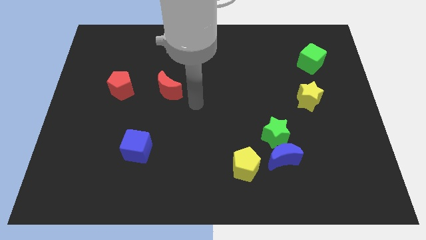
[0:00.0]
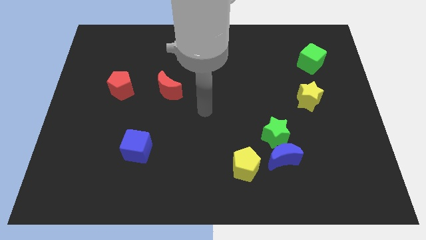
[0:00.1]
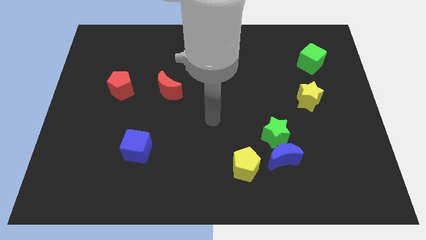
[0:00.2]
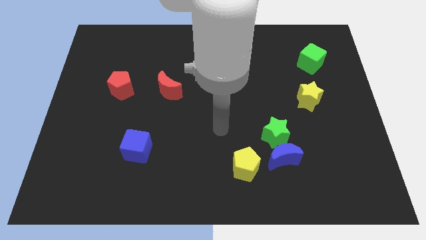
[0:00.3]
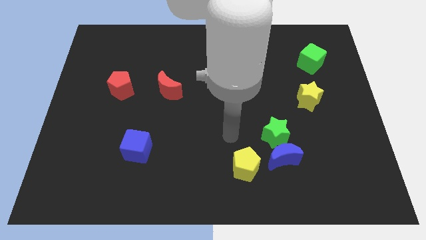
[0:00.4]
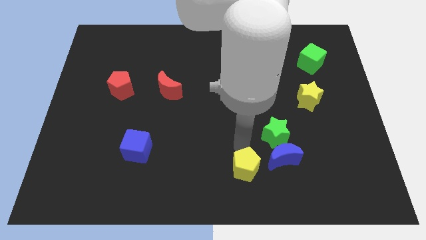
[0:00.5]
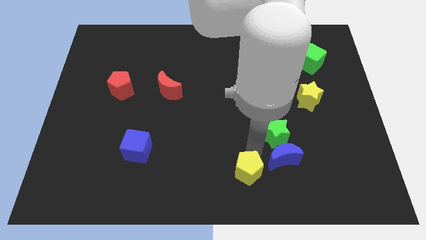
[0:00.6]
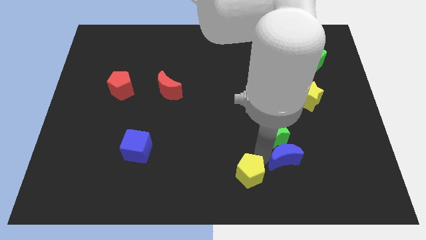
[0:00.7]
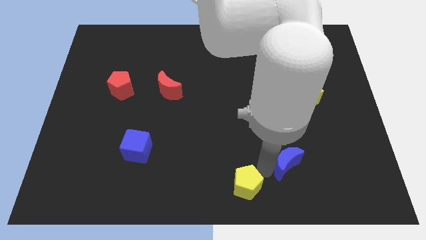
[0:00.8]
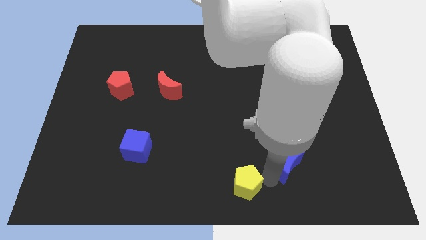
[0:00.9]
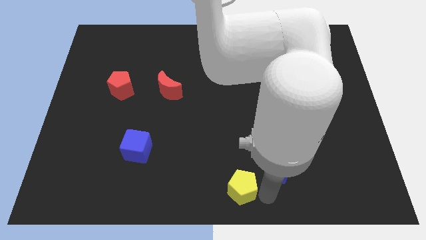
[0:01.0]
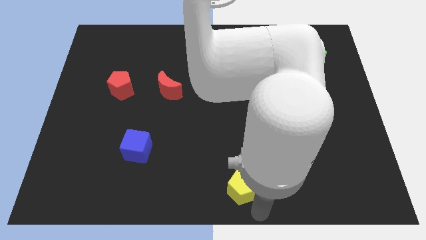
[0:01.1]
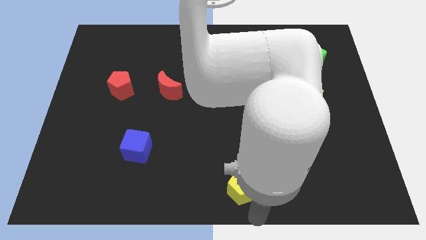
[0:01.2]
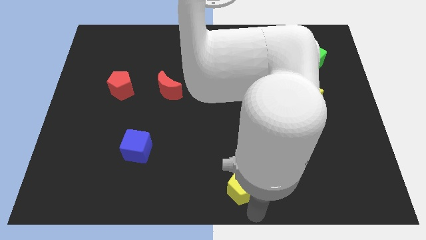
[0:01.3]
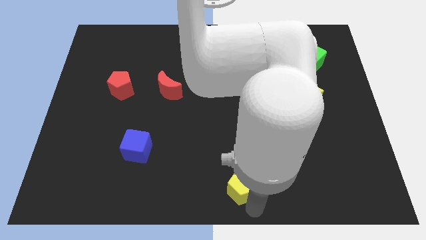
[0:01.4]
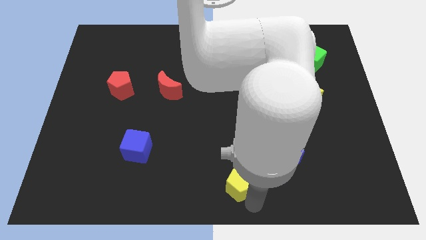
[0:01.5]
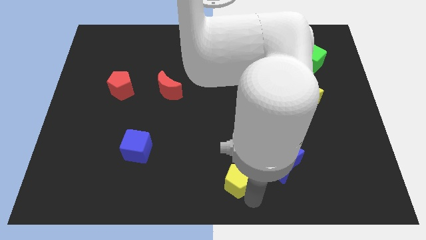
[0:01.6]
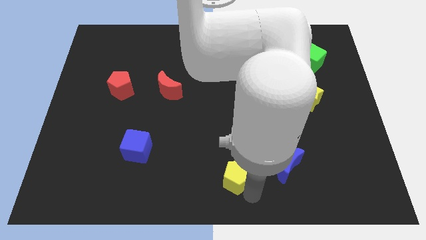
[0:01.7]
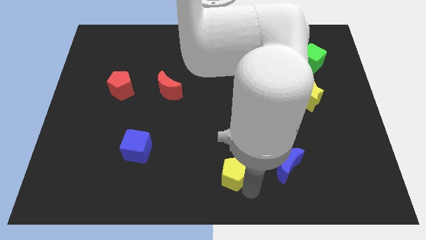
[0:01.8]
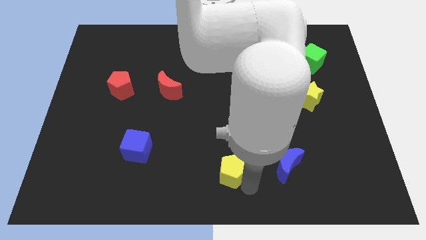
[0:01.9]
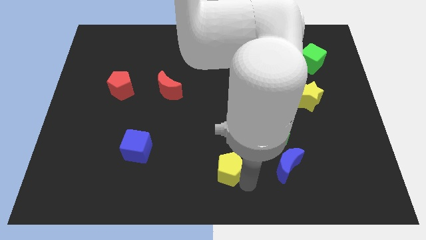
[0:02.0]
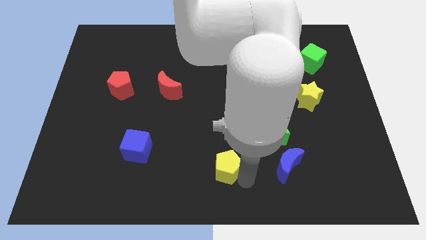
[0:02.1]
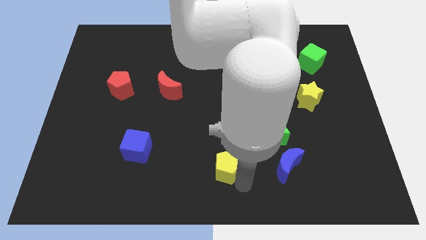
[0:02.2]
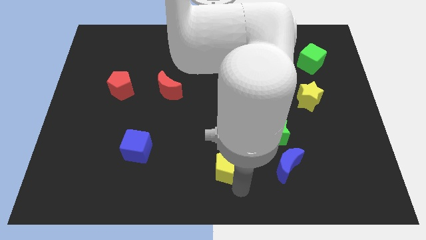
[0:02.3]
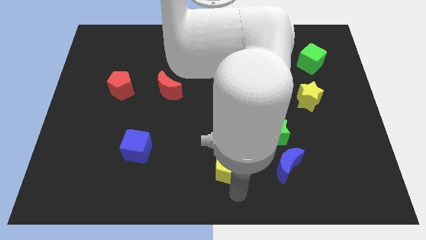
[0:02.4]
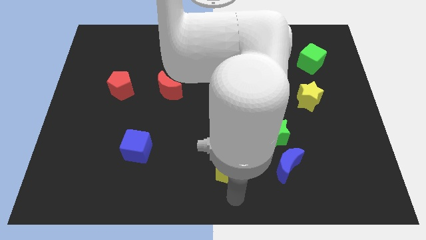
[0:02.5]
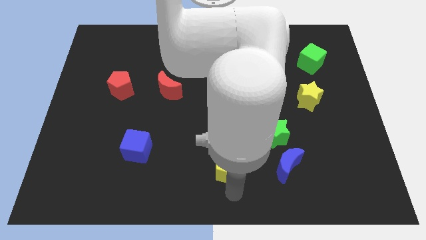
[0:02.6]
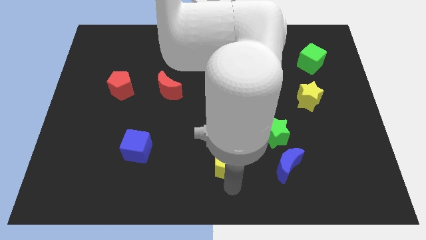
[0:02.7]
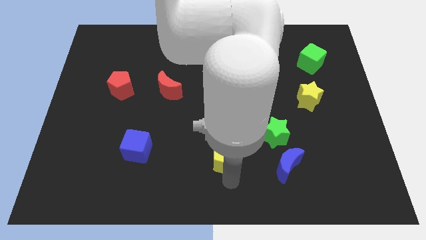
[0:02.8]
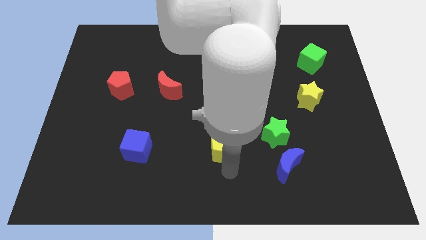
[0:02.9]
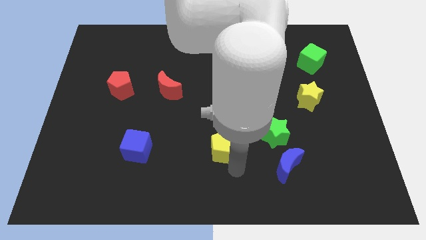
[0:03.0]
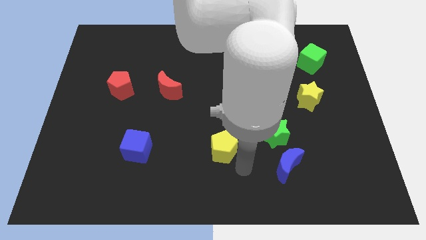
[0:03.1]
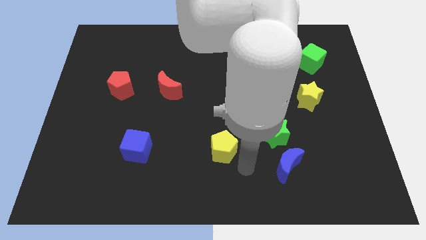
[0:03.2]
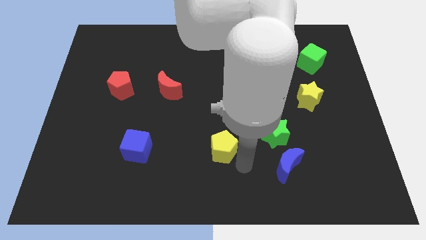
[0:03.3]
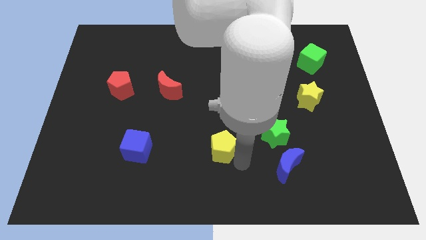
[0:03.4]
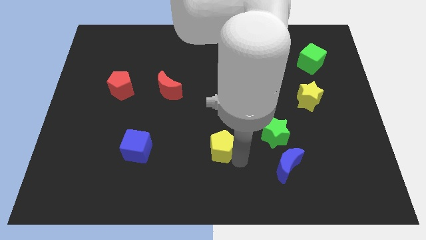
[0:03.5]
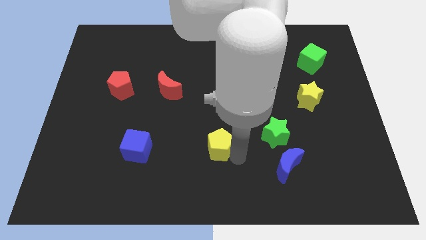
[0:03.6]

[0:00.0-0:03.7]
push the yellow pentagon upwards and then to the left a little

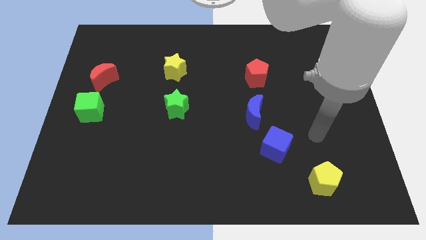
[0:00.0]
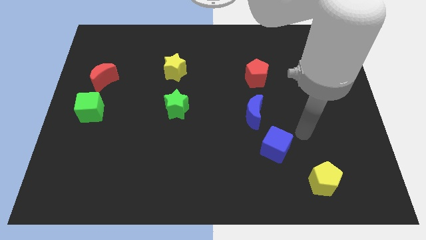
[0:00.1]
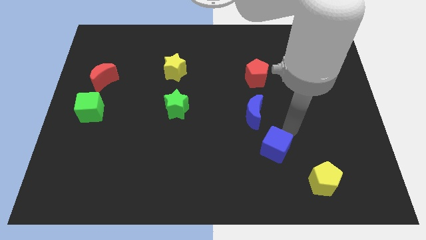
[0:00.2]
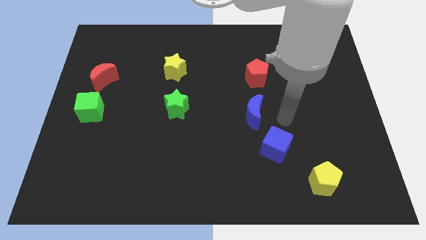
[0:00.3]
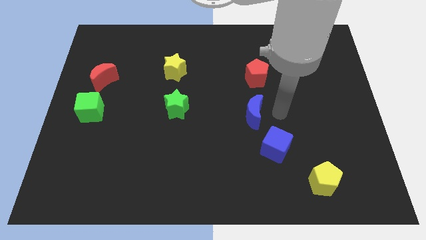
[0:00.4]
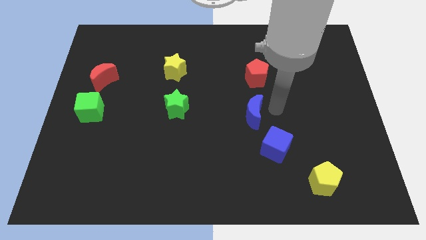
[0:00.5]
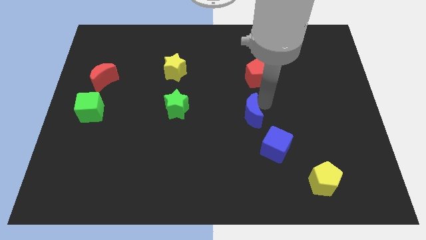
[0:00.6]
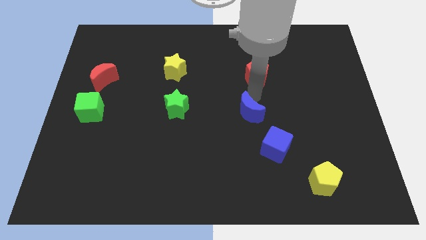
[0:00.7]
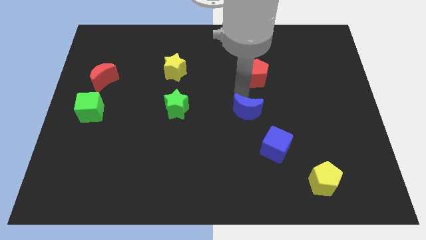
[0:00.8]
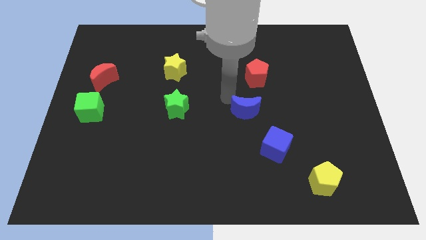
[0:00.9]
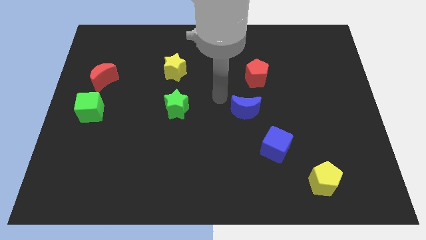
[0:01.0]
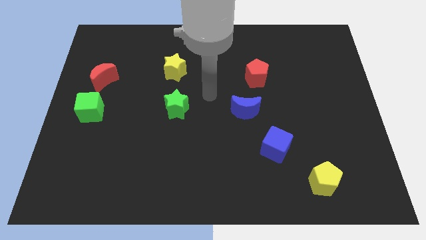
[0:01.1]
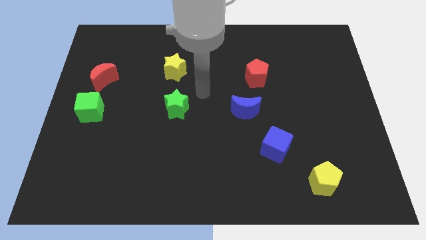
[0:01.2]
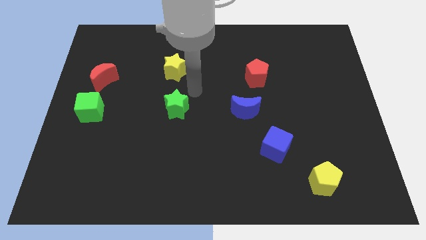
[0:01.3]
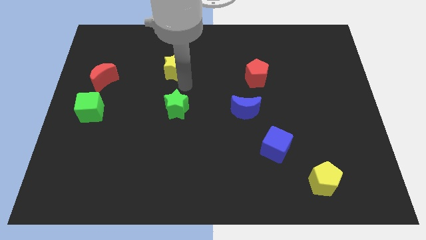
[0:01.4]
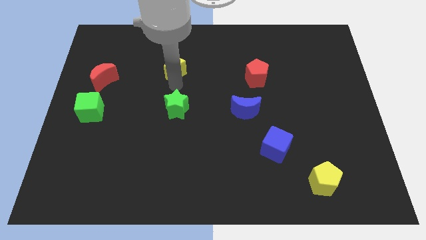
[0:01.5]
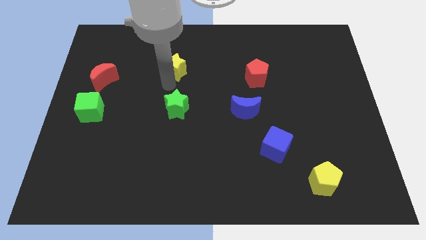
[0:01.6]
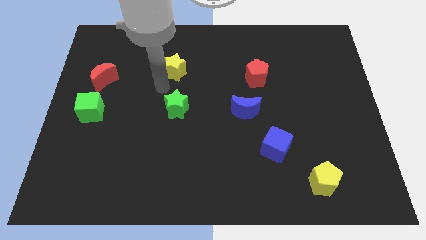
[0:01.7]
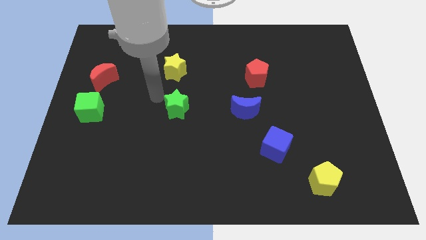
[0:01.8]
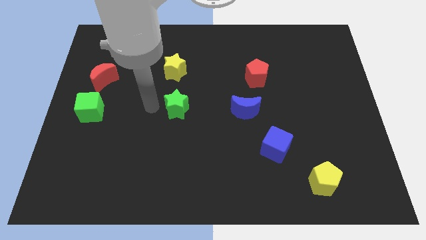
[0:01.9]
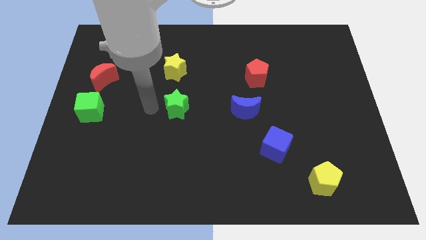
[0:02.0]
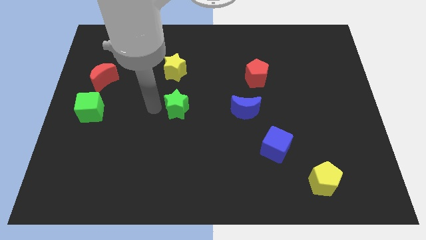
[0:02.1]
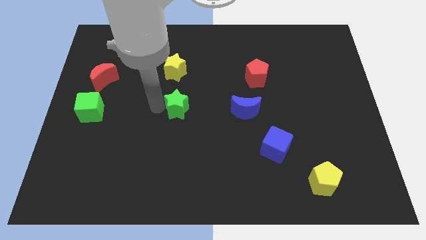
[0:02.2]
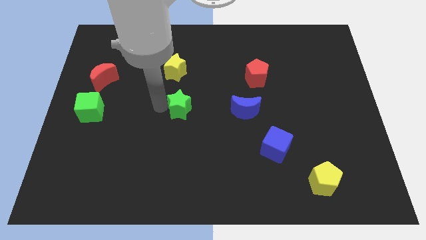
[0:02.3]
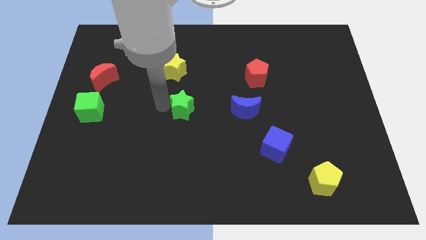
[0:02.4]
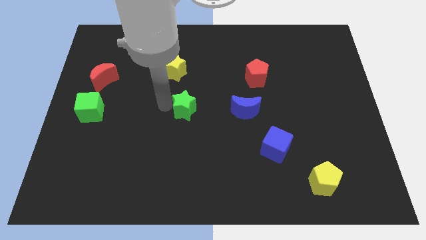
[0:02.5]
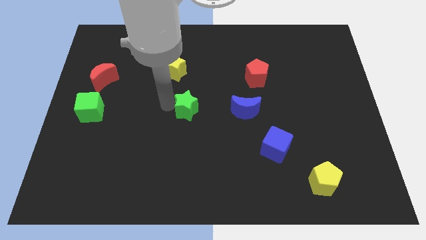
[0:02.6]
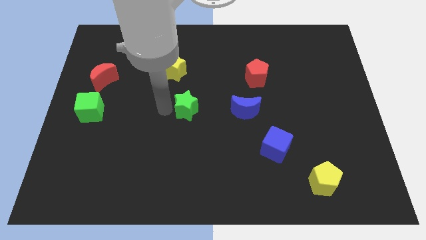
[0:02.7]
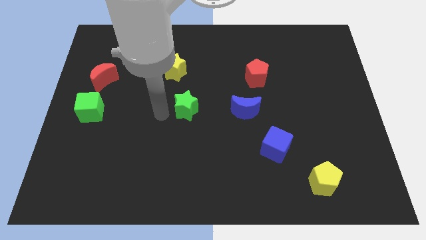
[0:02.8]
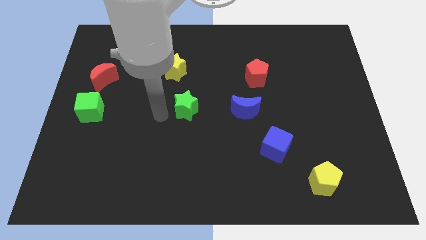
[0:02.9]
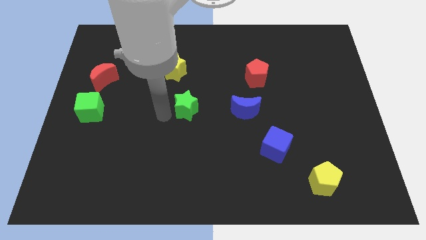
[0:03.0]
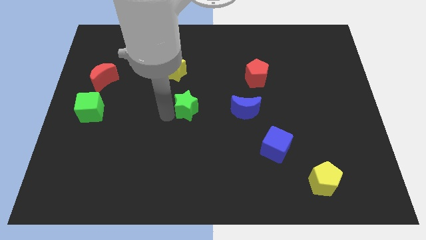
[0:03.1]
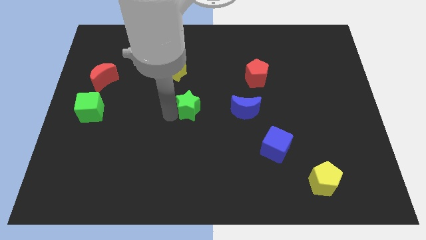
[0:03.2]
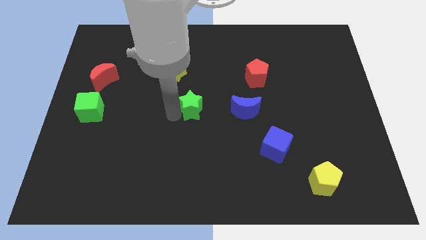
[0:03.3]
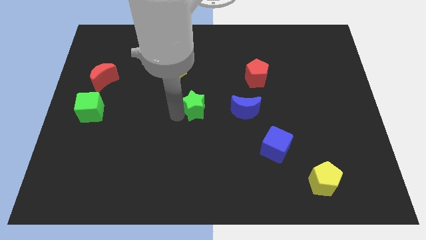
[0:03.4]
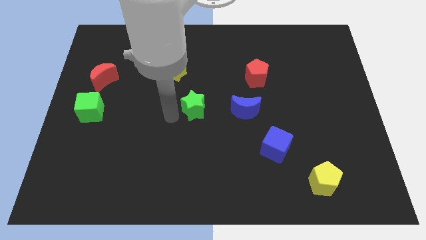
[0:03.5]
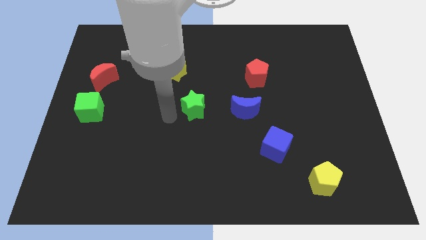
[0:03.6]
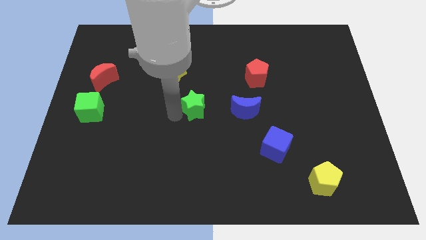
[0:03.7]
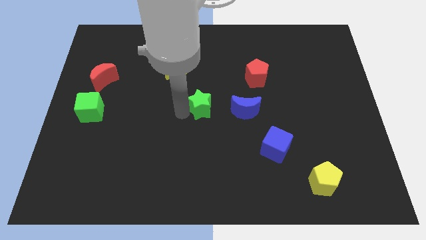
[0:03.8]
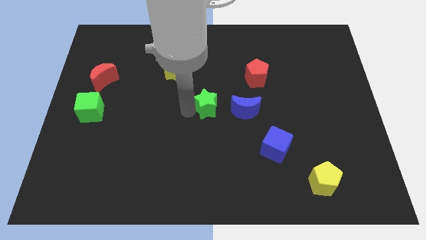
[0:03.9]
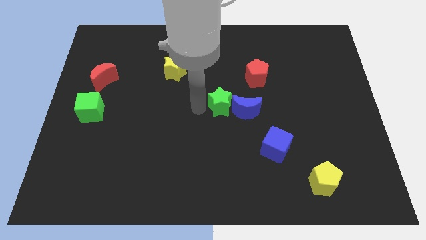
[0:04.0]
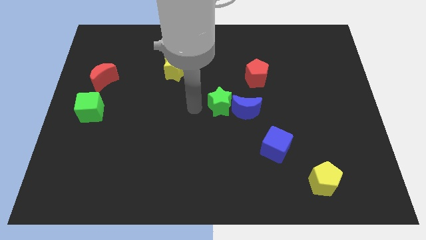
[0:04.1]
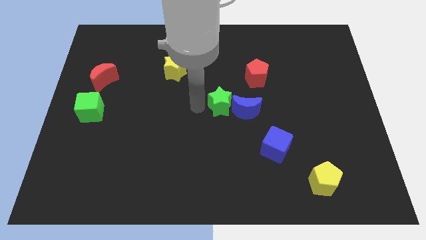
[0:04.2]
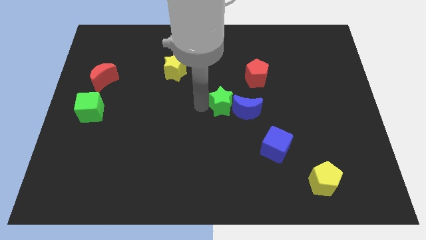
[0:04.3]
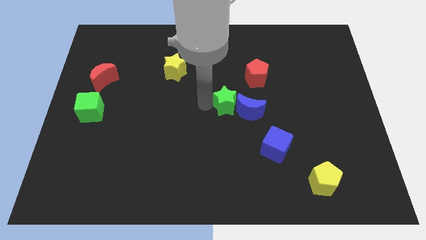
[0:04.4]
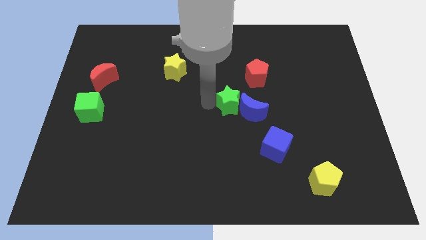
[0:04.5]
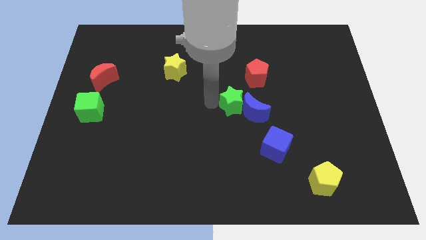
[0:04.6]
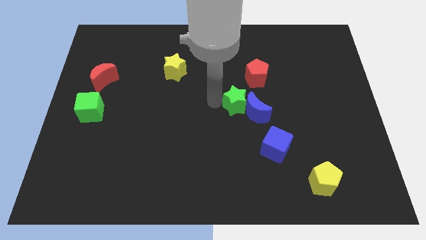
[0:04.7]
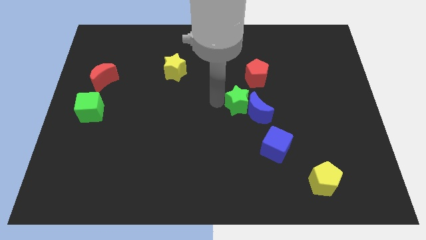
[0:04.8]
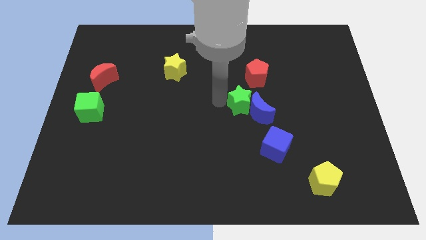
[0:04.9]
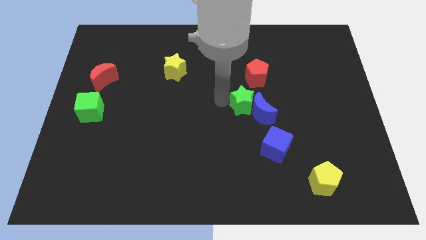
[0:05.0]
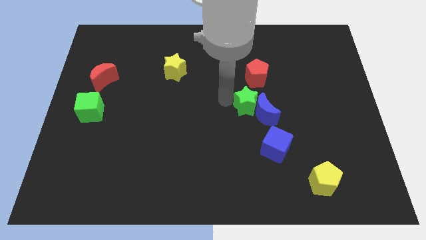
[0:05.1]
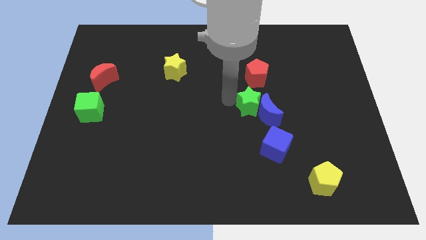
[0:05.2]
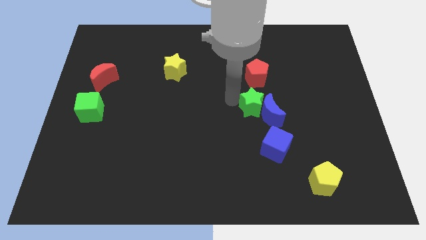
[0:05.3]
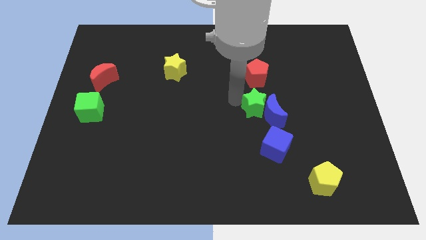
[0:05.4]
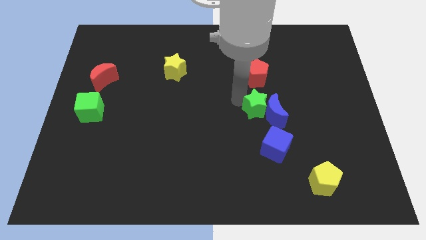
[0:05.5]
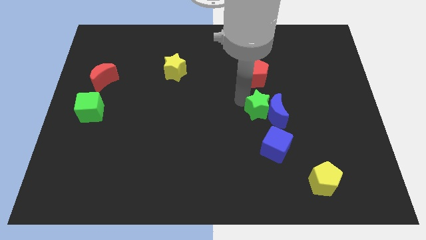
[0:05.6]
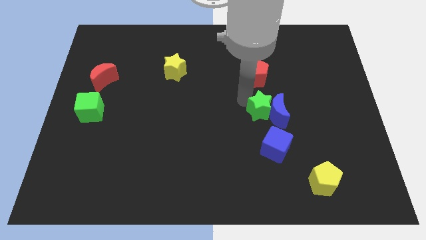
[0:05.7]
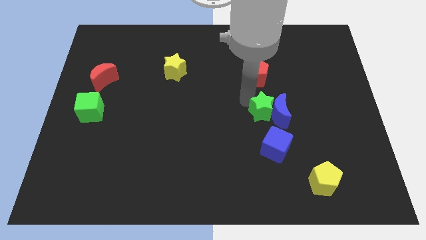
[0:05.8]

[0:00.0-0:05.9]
push the green star right
